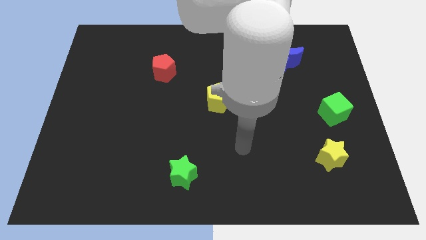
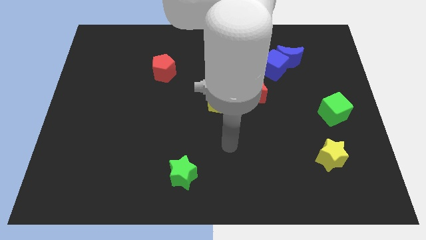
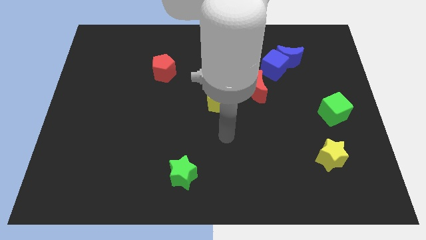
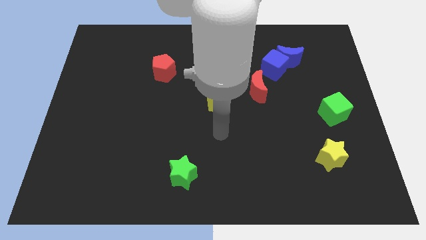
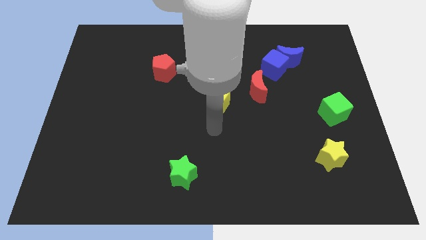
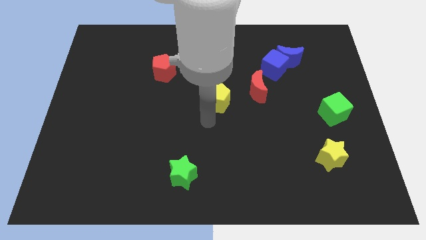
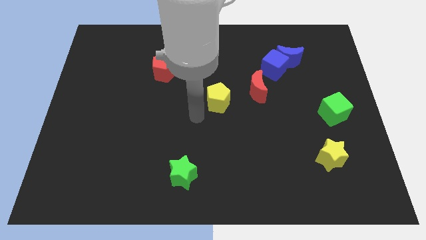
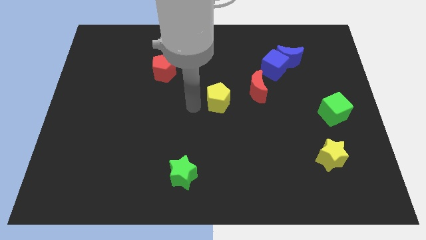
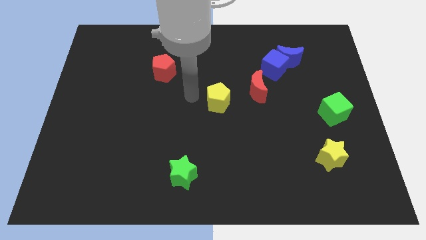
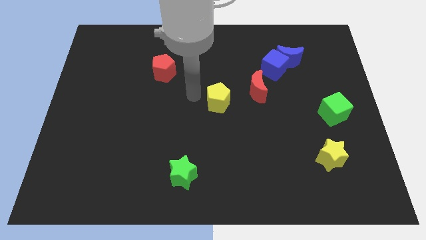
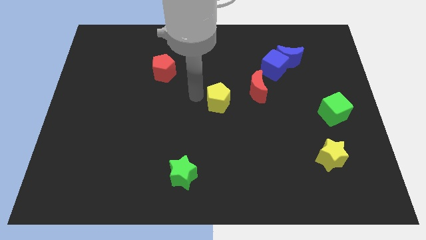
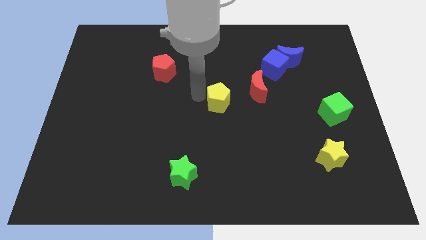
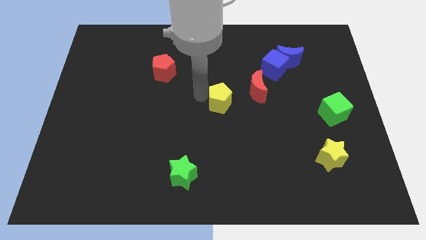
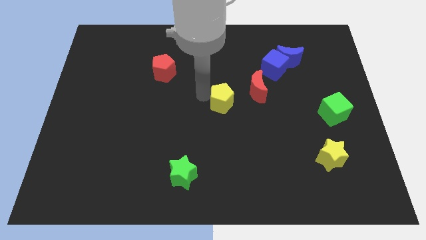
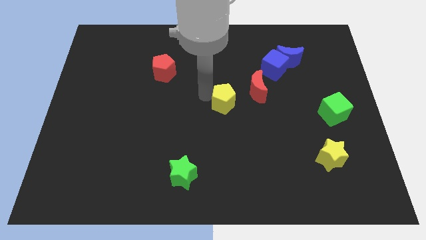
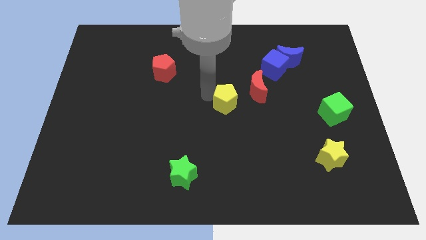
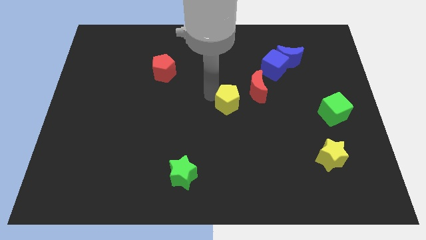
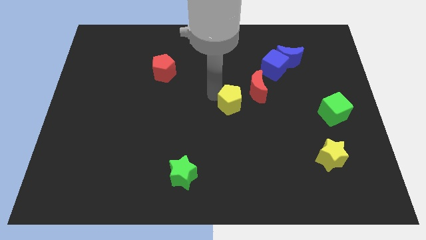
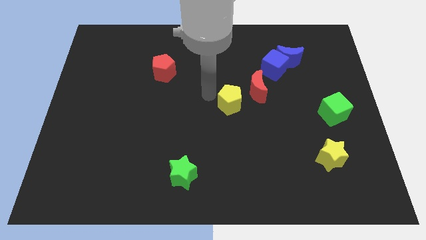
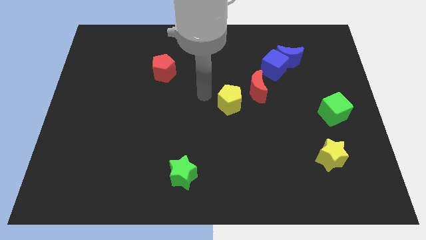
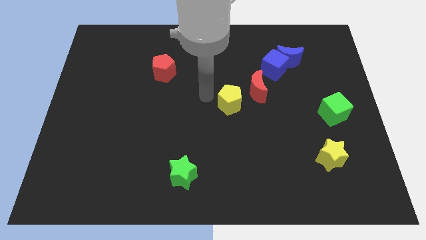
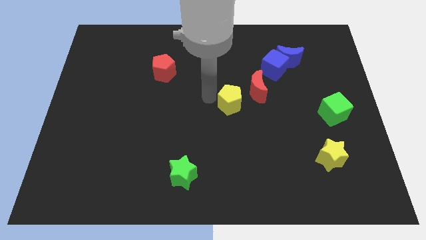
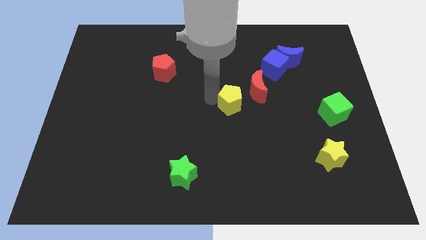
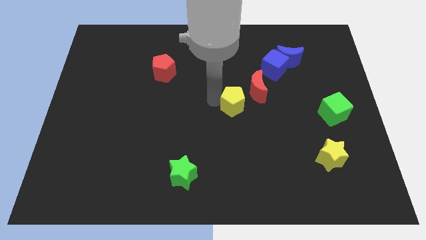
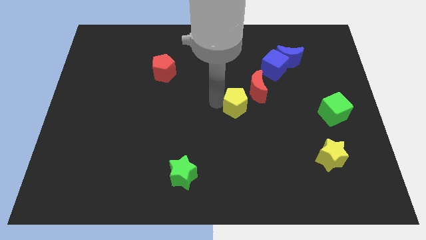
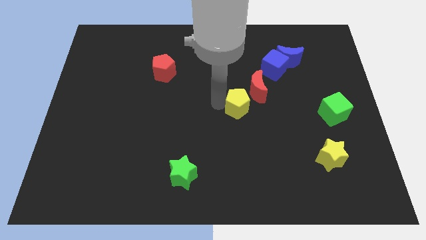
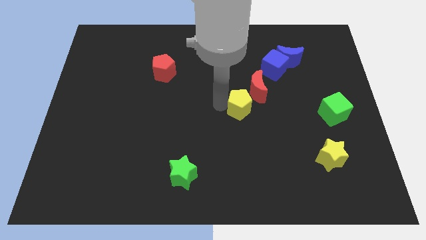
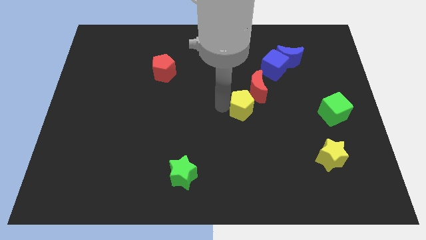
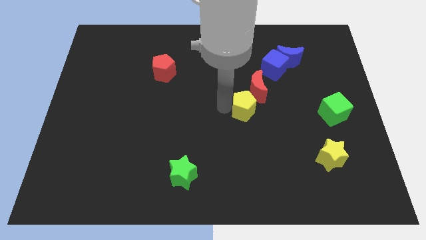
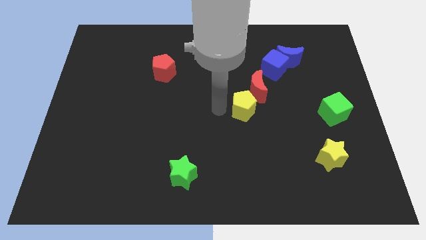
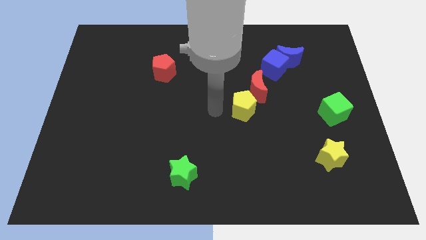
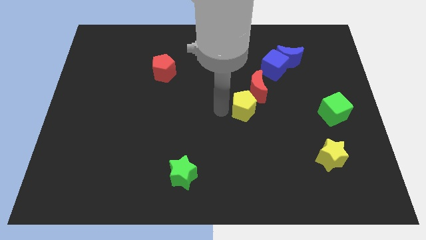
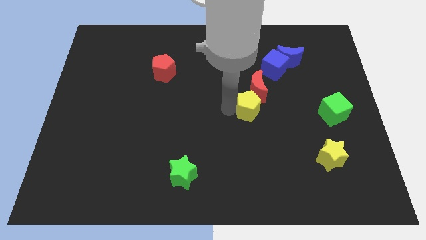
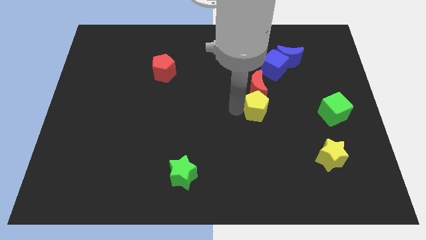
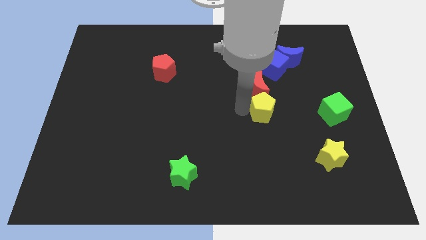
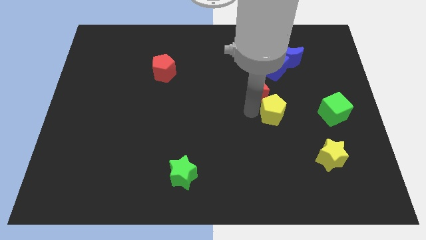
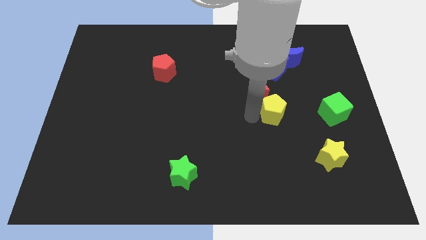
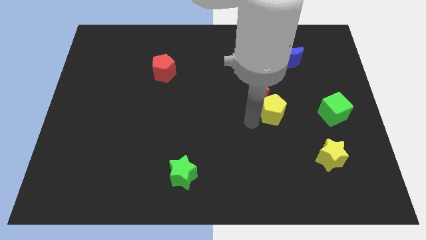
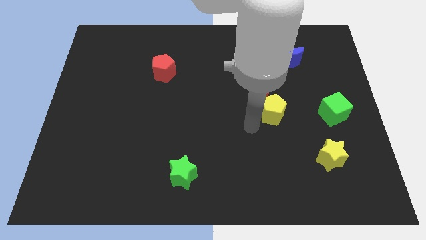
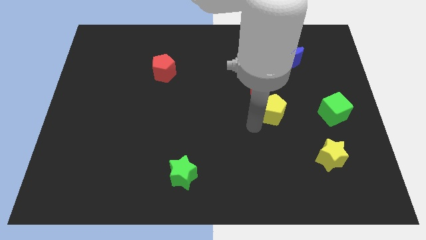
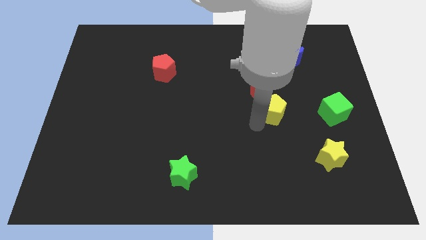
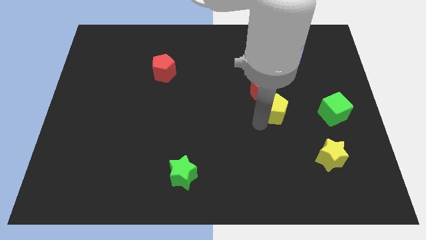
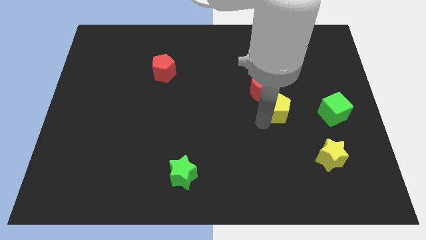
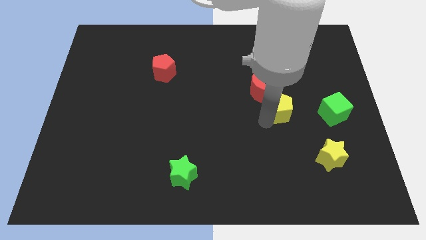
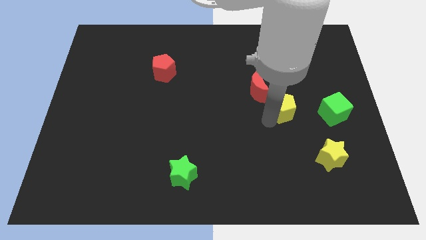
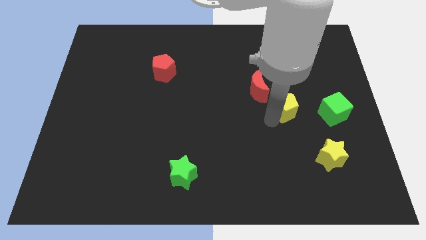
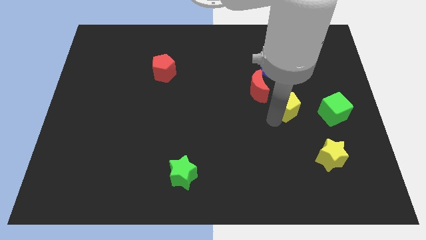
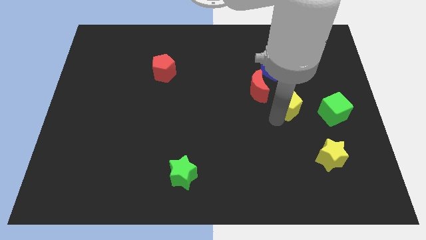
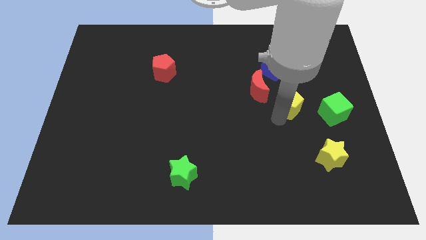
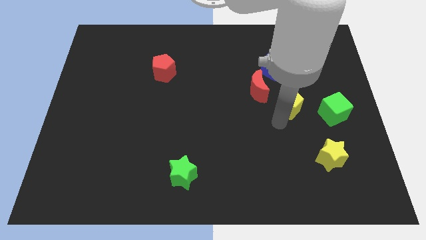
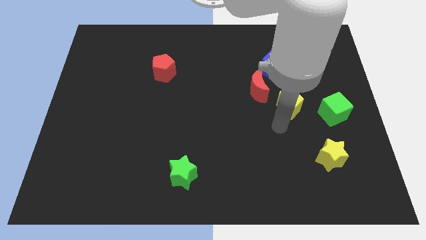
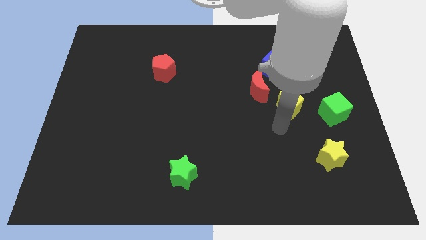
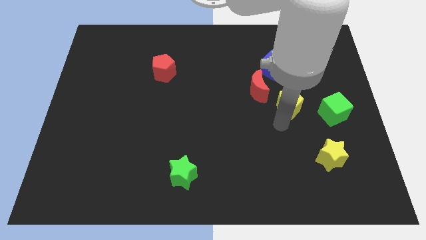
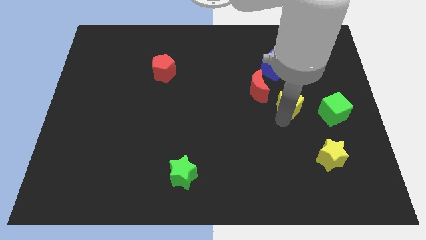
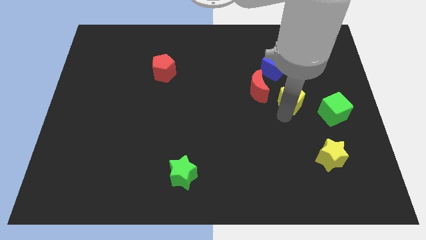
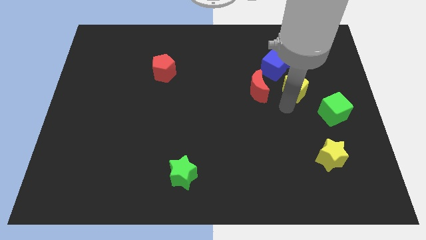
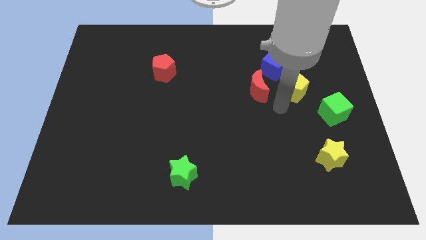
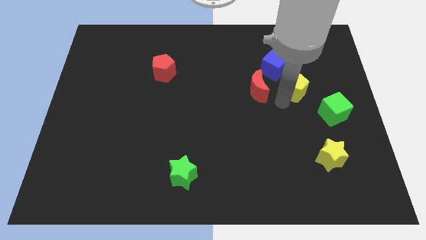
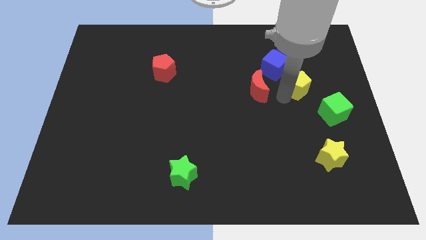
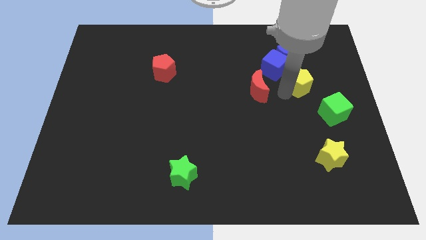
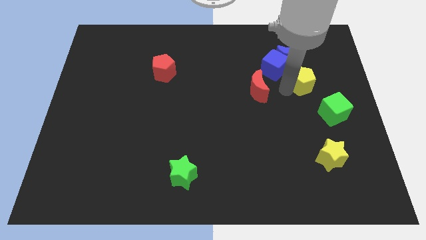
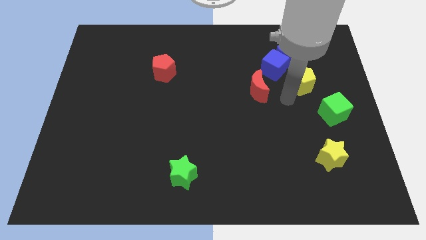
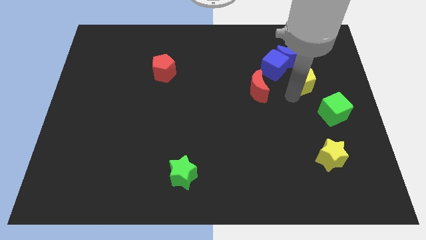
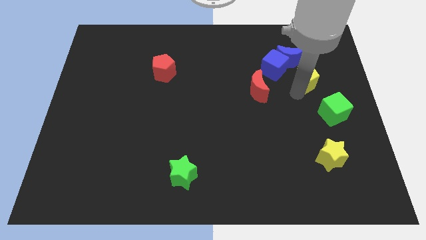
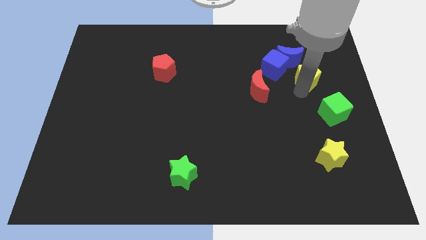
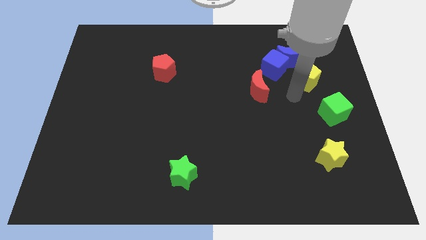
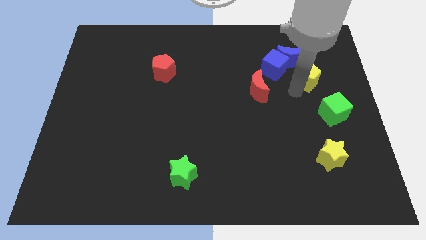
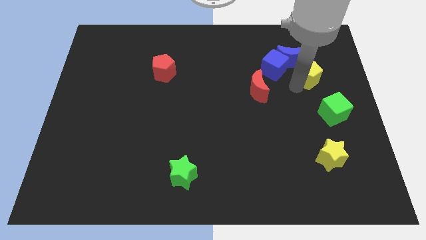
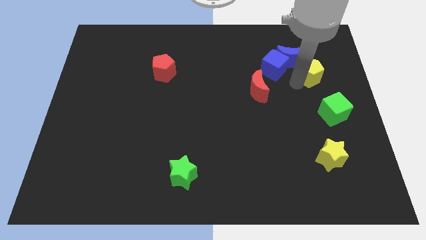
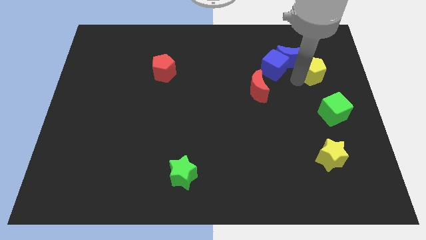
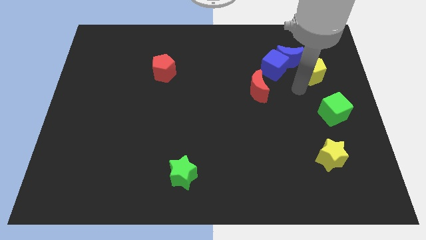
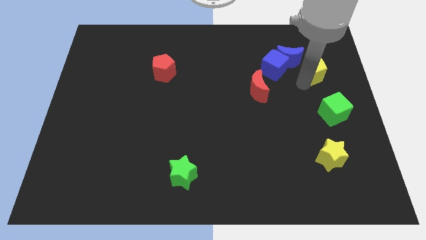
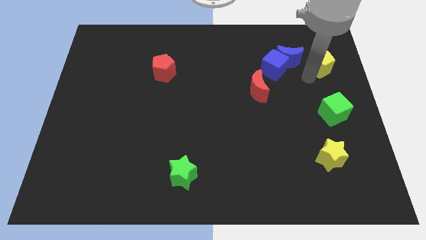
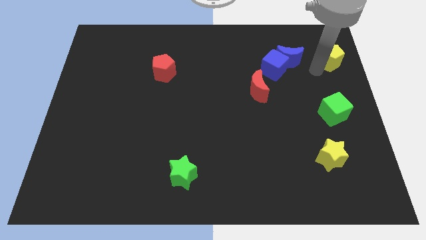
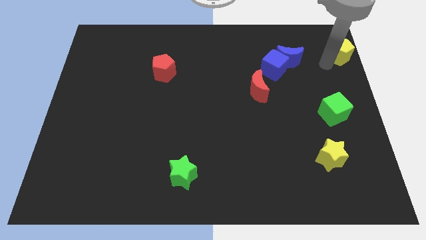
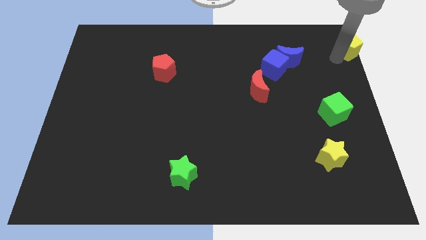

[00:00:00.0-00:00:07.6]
put the yellow pentagon to the top right corner
